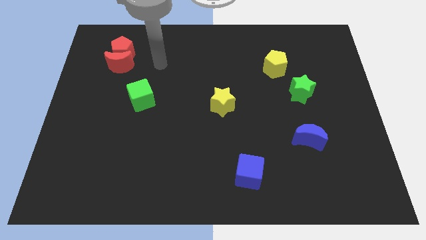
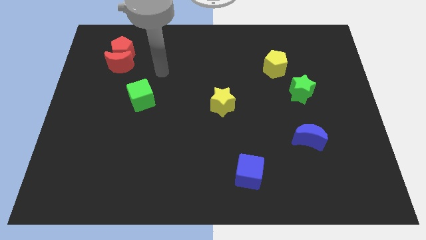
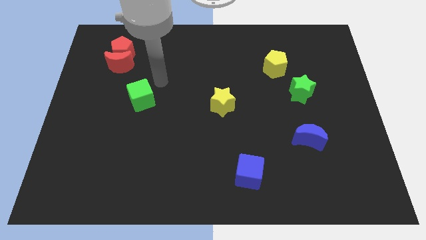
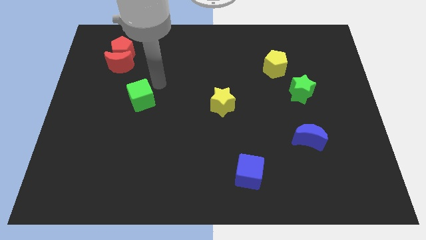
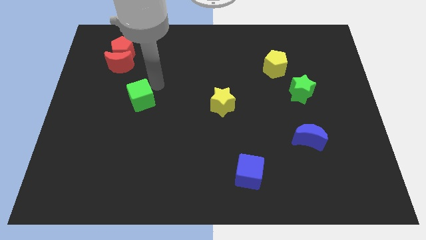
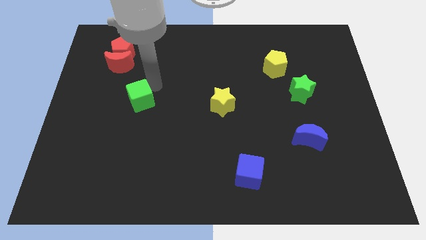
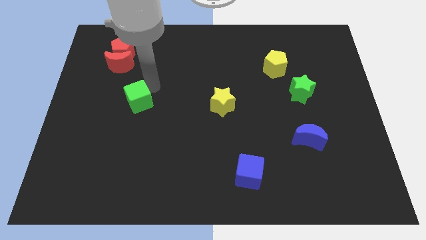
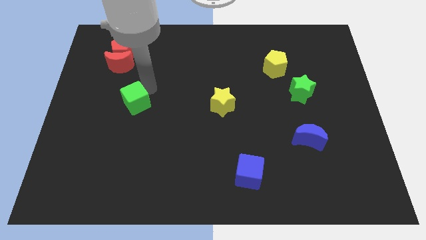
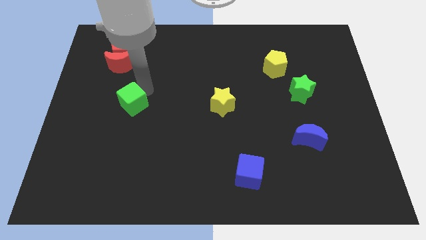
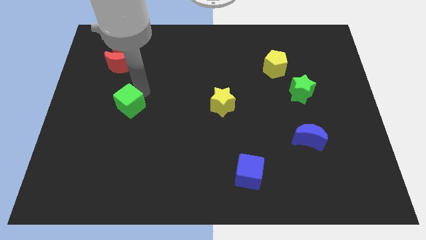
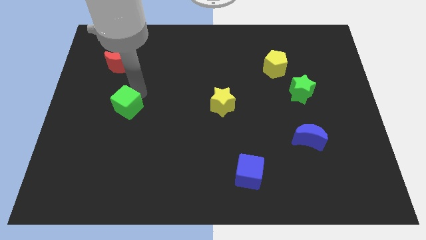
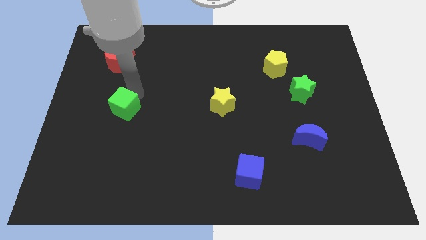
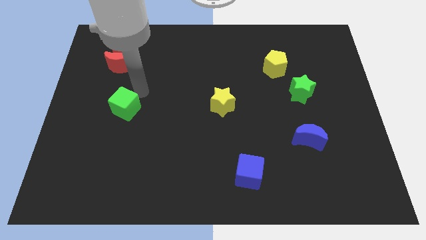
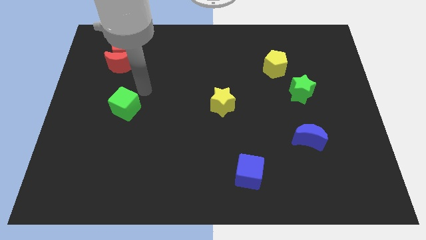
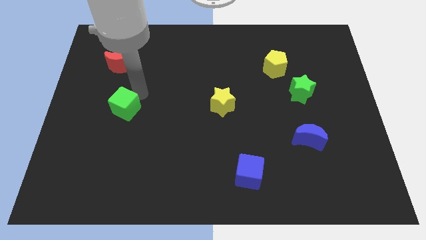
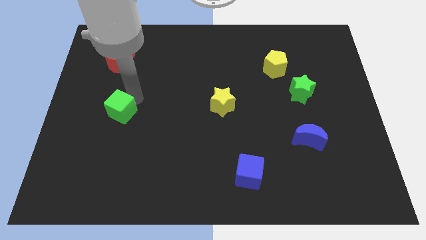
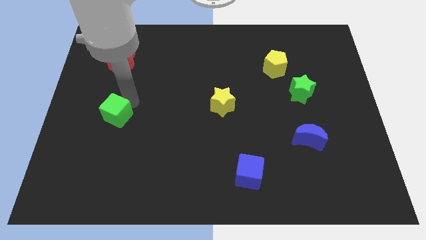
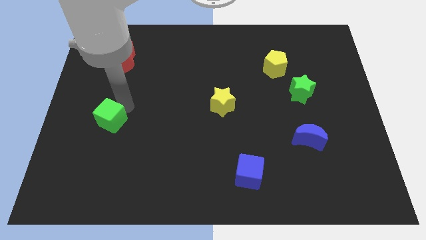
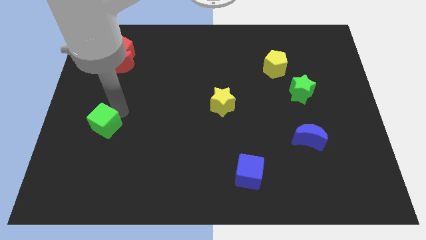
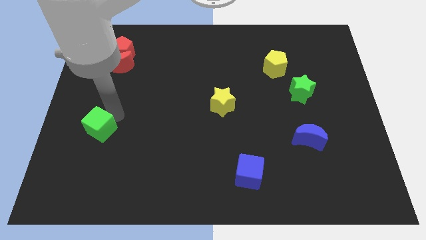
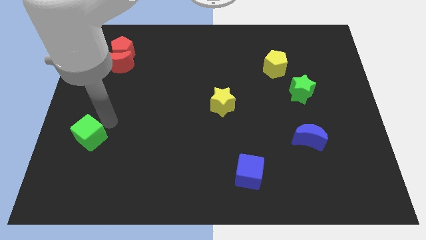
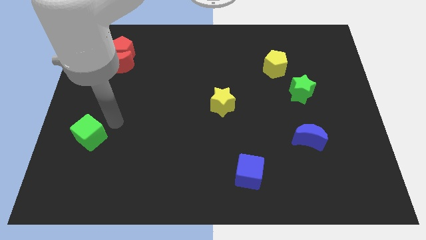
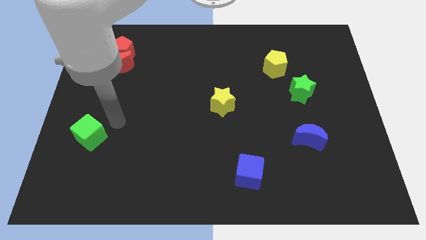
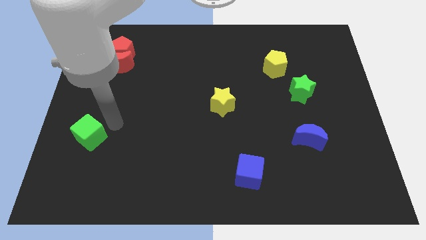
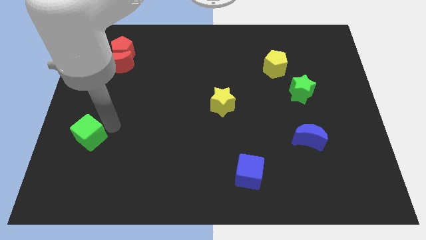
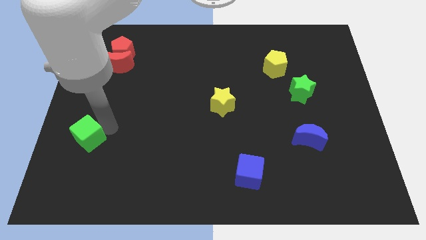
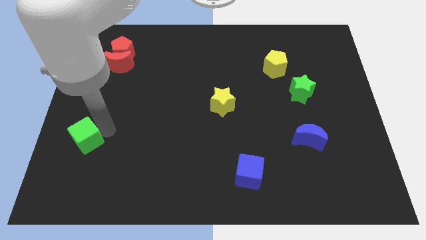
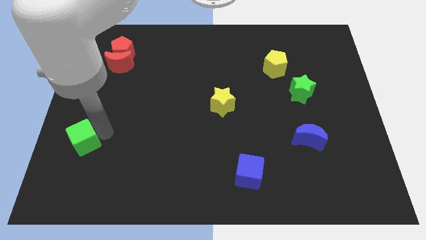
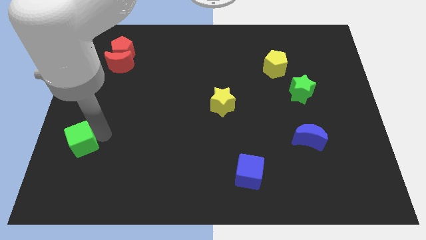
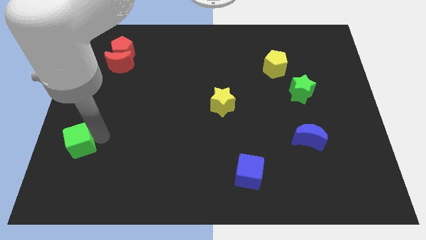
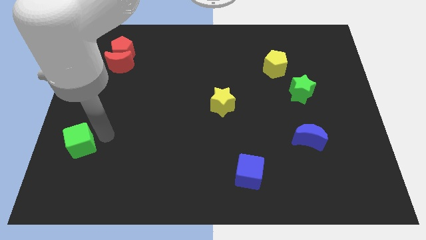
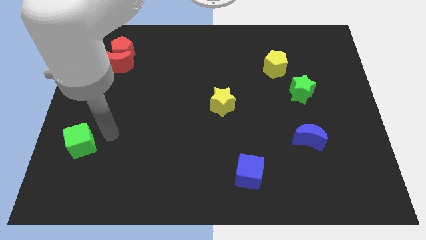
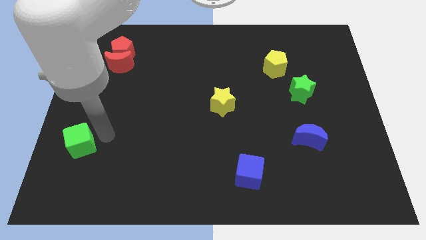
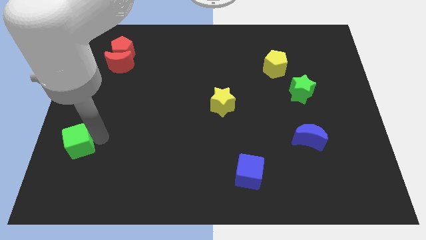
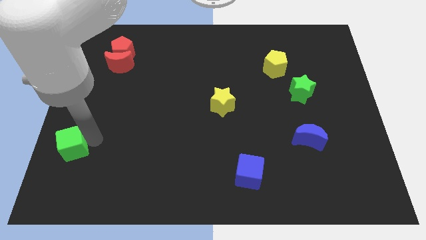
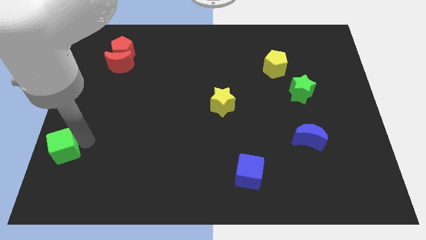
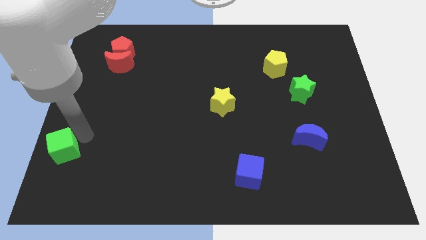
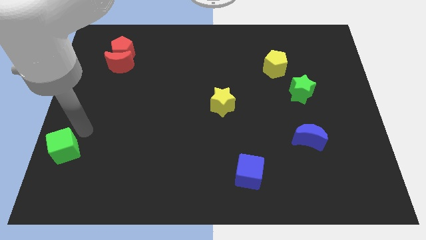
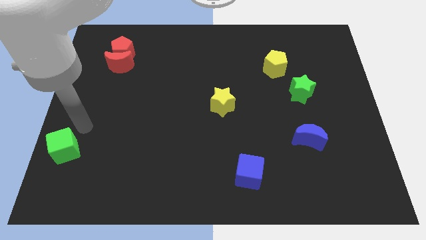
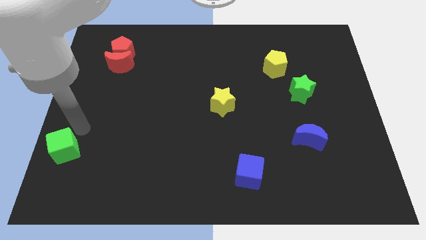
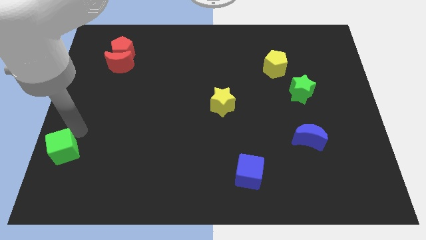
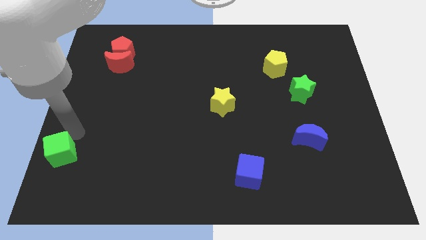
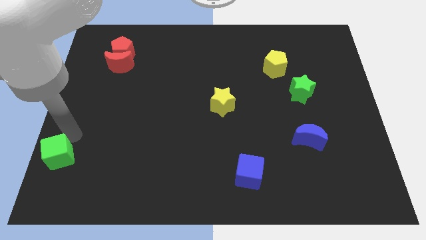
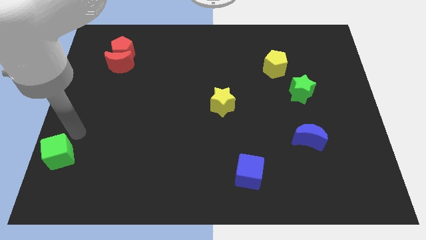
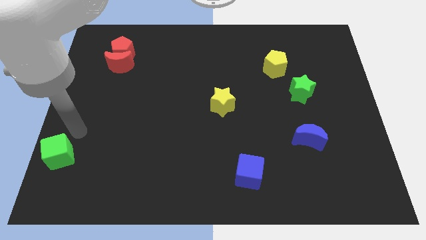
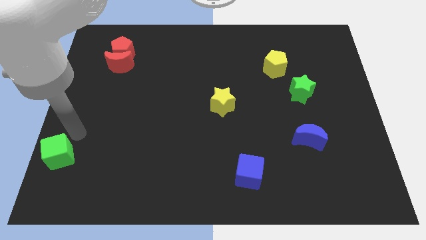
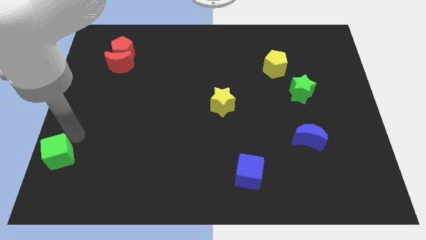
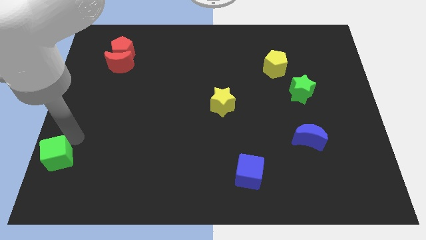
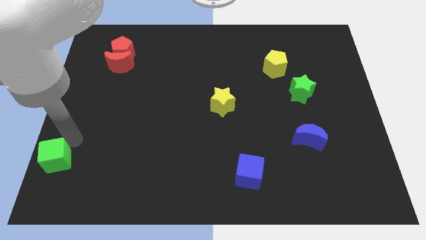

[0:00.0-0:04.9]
push the green cube to the bottom left corner

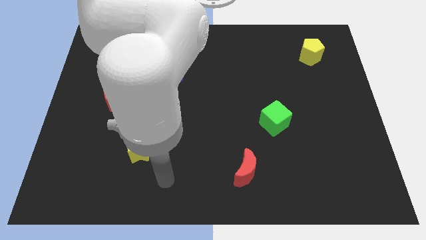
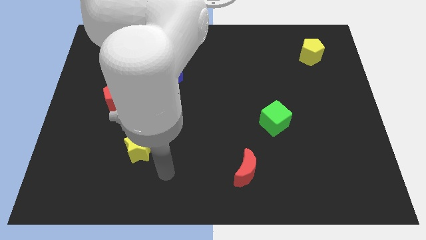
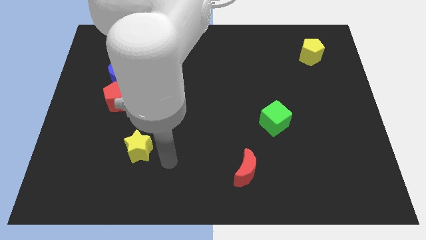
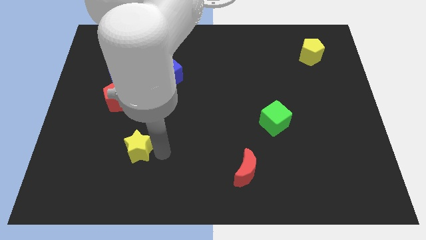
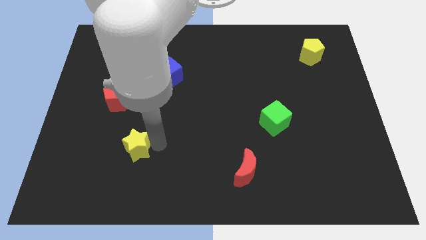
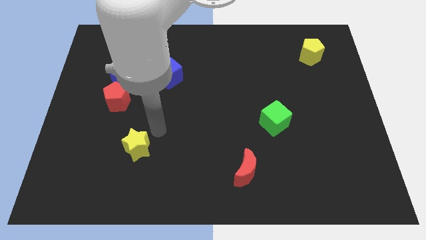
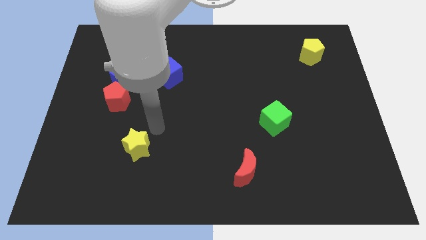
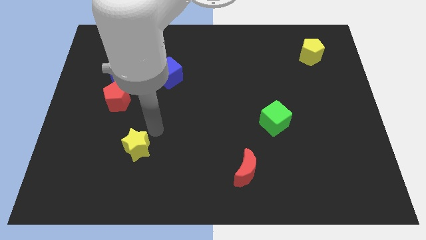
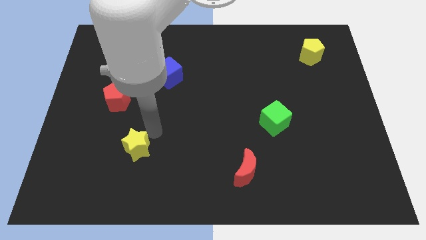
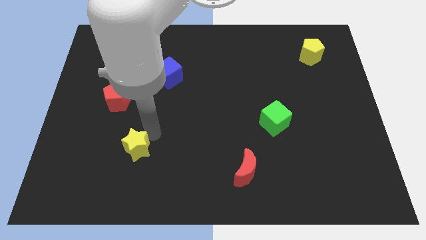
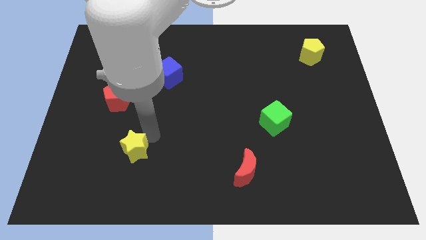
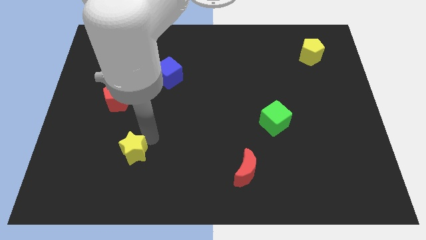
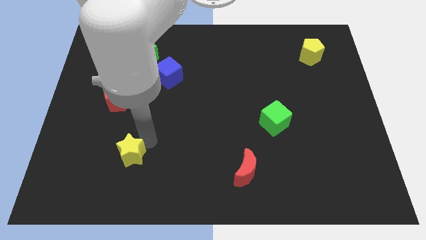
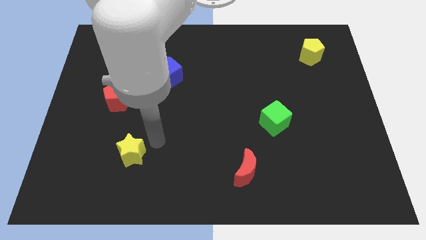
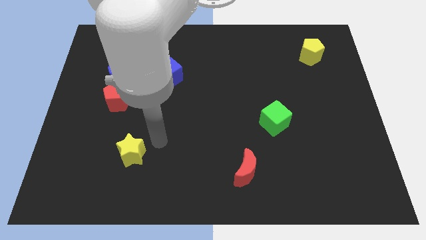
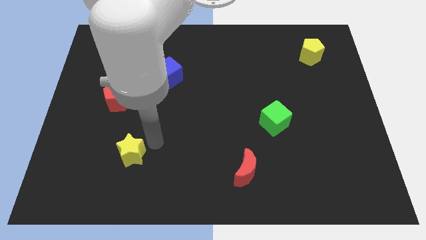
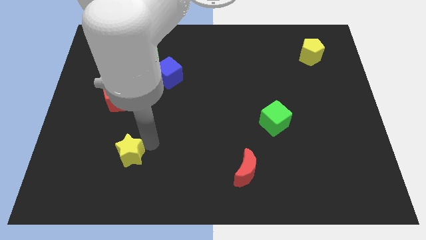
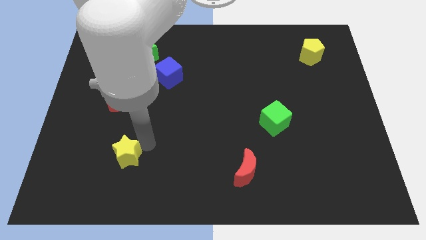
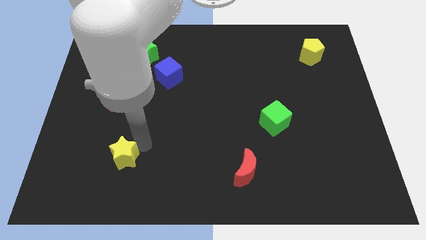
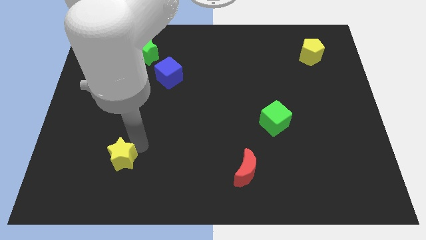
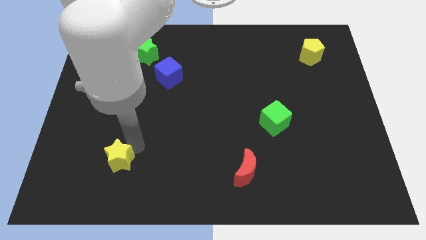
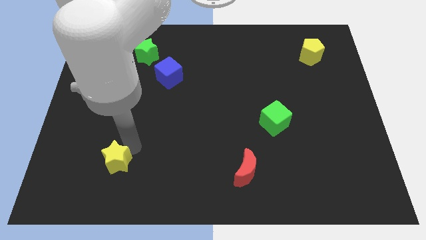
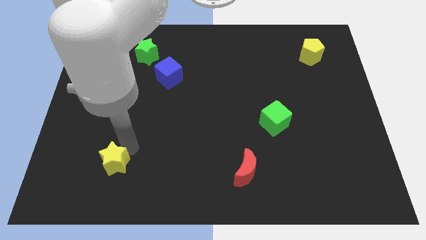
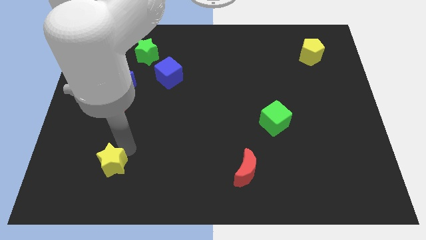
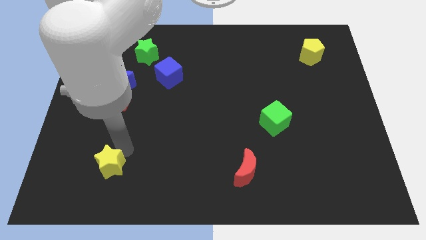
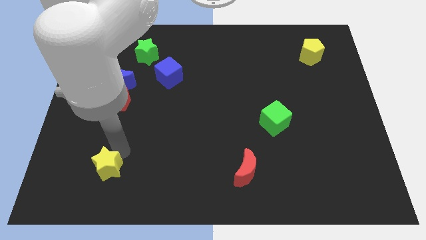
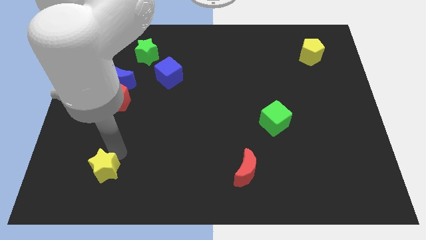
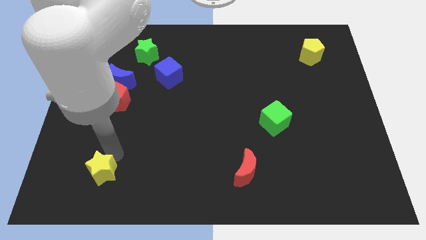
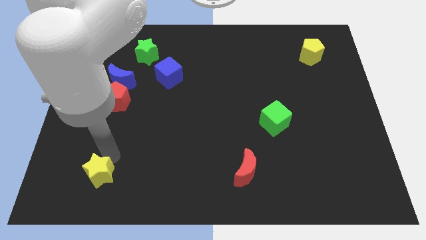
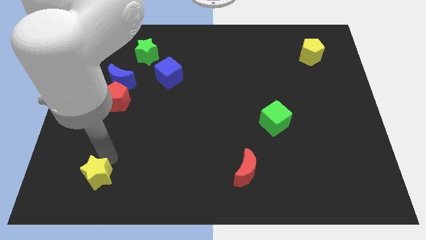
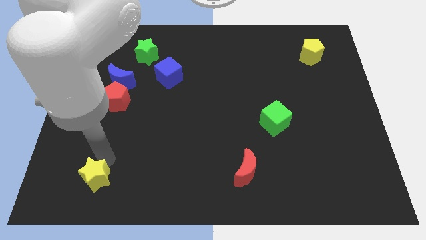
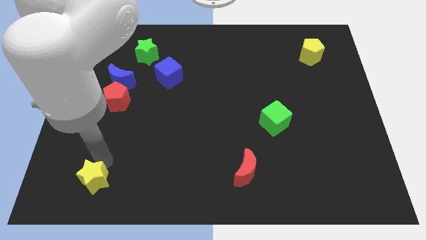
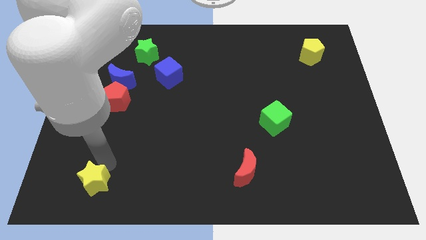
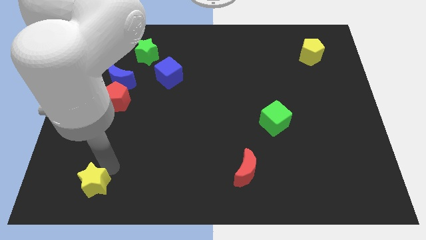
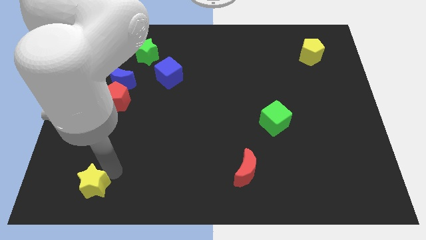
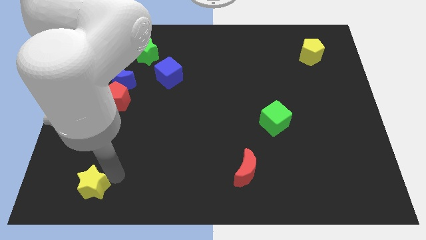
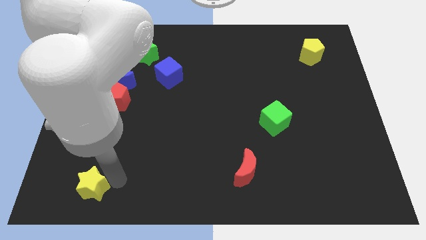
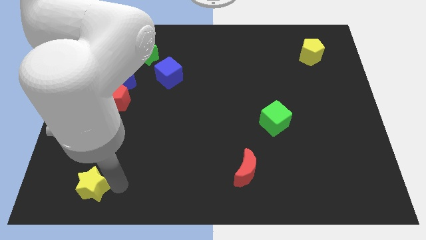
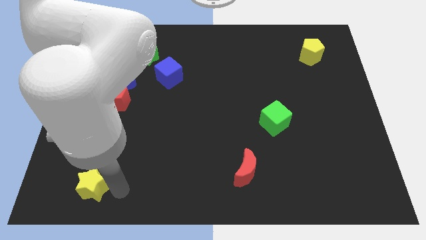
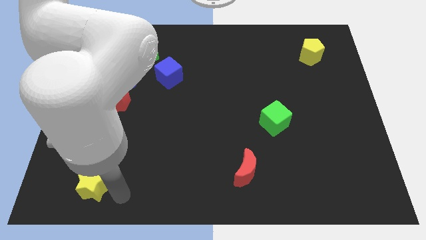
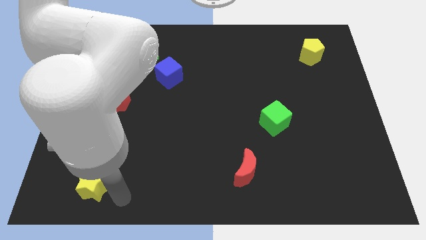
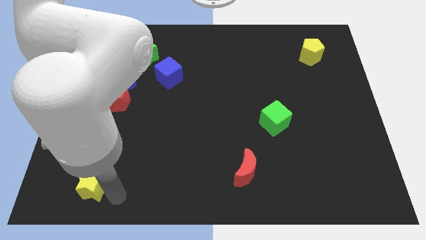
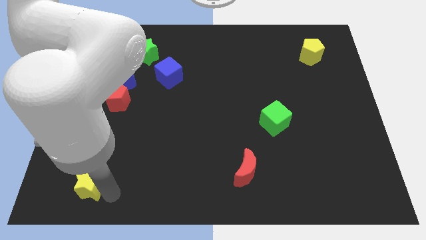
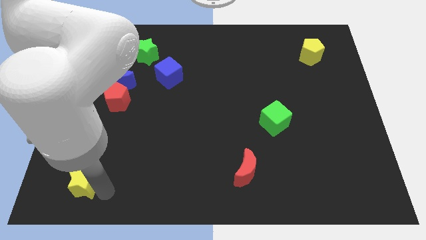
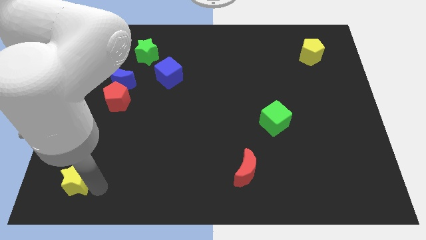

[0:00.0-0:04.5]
slide the yellow star to the bottom left of the board
